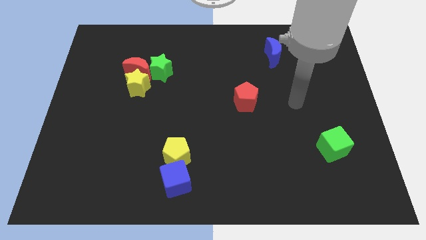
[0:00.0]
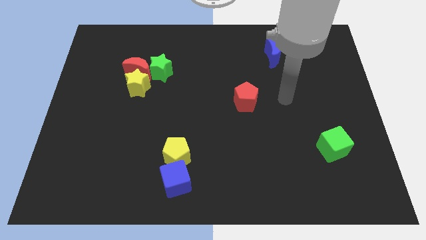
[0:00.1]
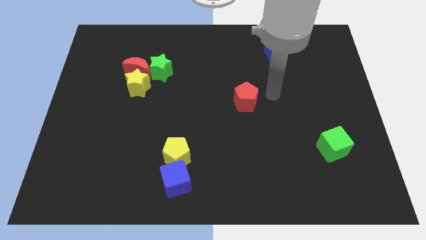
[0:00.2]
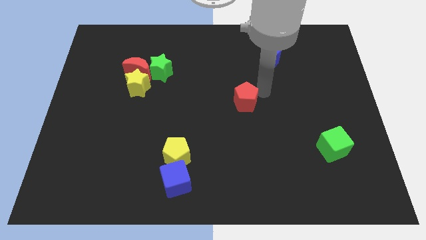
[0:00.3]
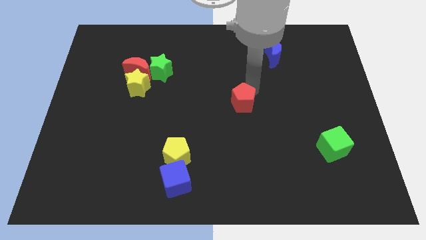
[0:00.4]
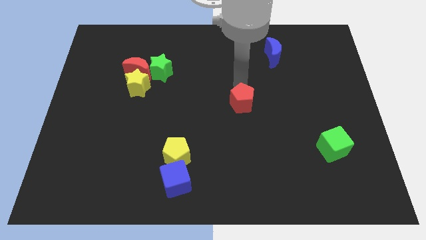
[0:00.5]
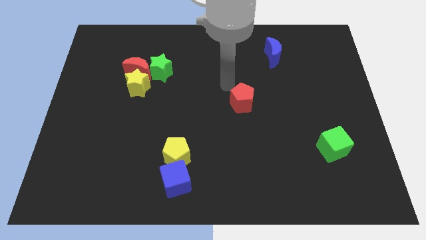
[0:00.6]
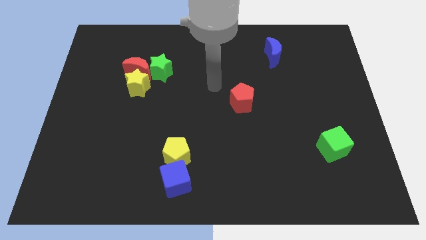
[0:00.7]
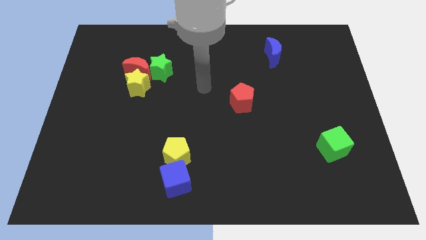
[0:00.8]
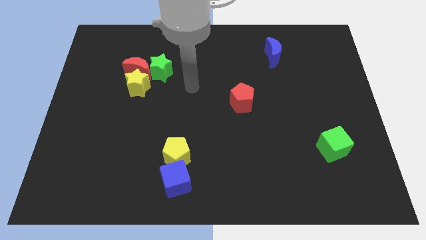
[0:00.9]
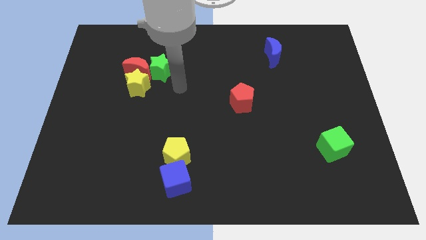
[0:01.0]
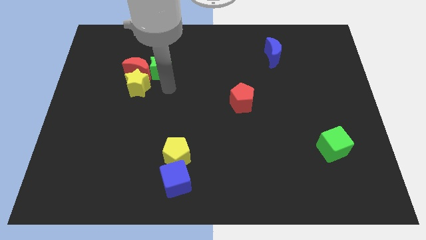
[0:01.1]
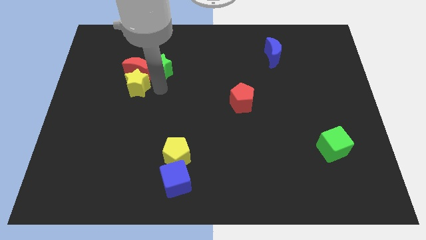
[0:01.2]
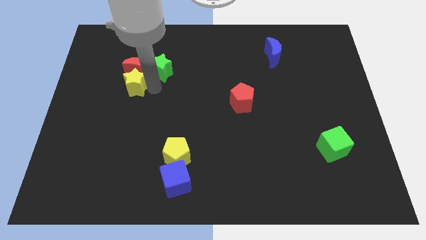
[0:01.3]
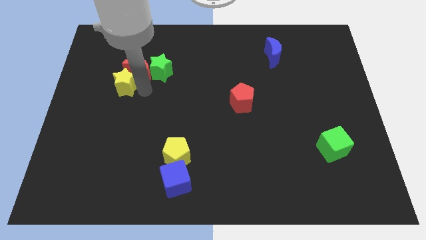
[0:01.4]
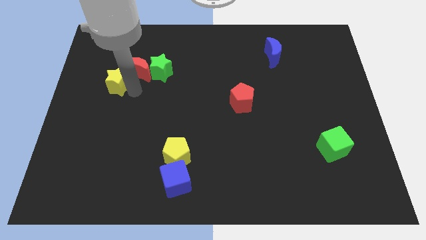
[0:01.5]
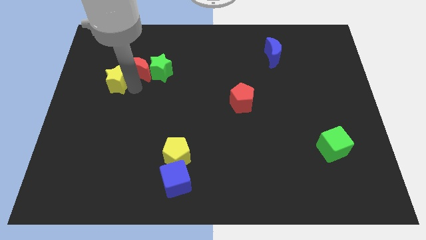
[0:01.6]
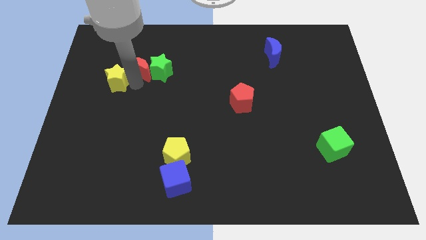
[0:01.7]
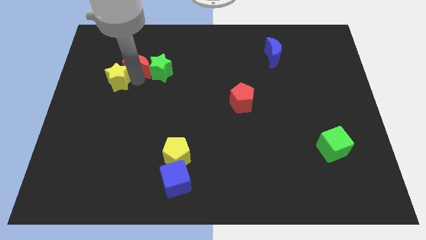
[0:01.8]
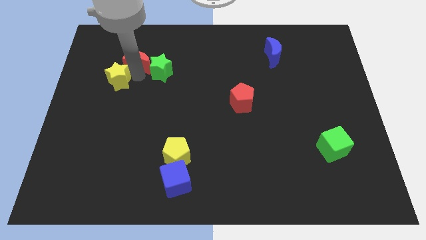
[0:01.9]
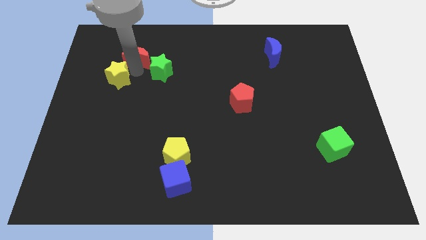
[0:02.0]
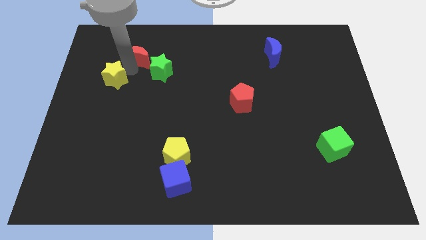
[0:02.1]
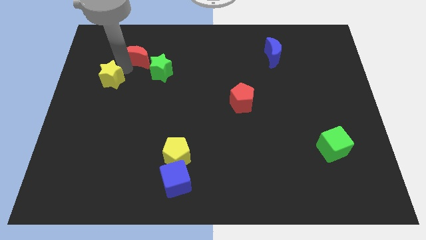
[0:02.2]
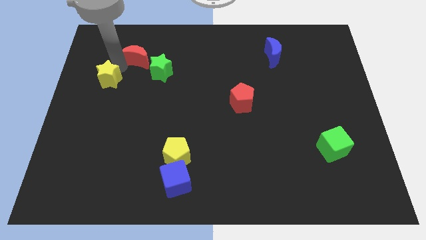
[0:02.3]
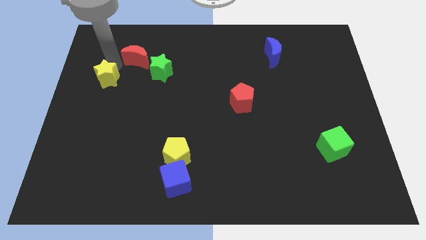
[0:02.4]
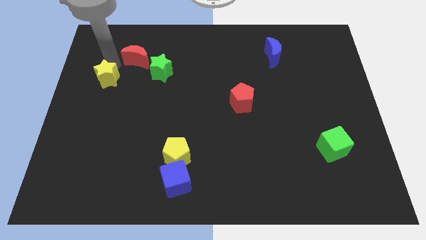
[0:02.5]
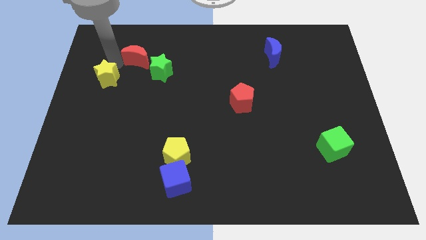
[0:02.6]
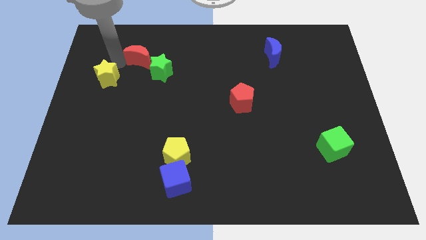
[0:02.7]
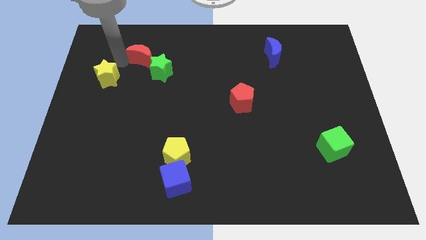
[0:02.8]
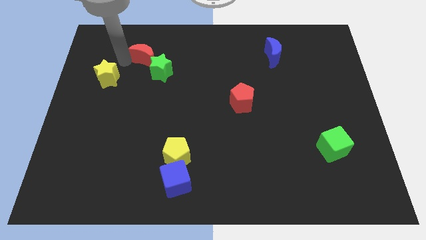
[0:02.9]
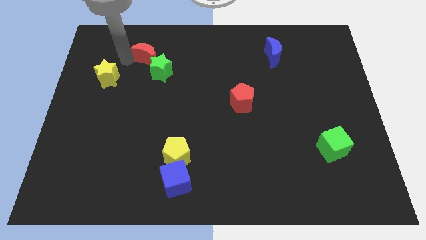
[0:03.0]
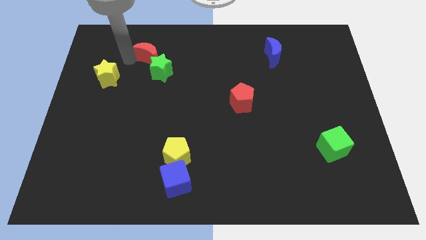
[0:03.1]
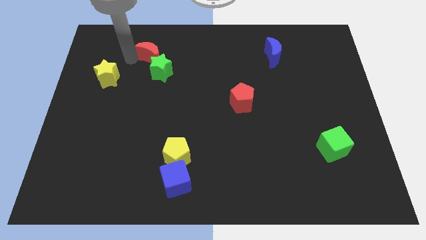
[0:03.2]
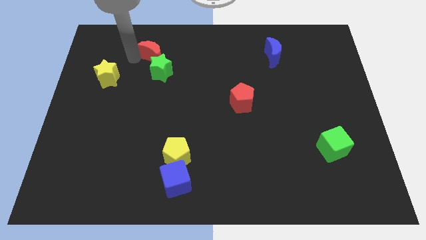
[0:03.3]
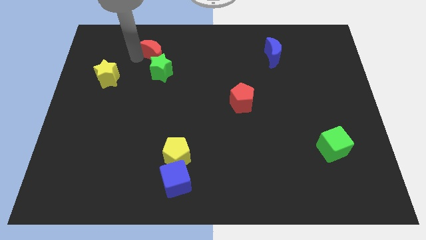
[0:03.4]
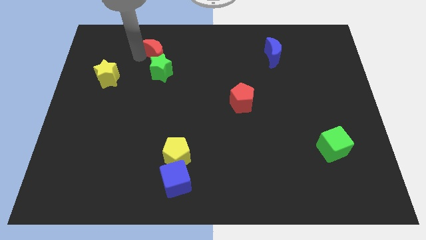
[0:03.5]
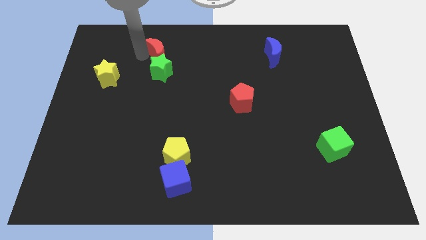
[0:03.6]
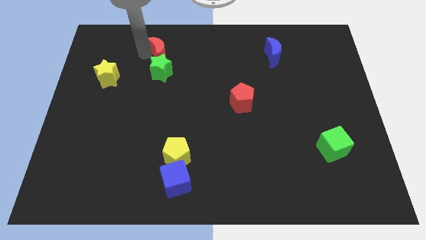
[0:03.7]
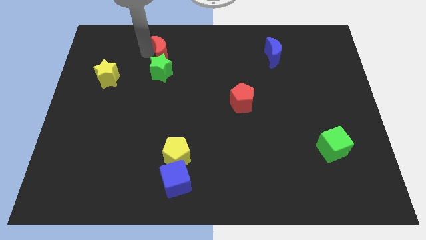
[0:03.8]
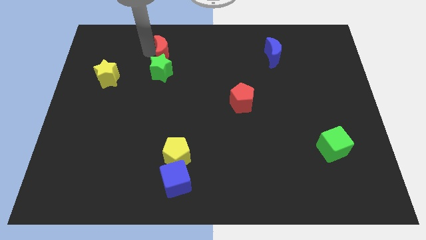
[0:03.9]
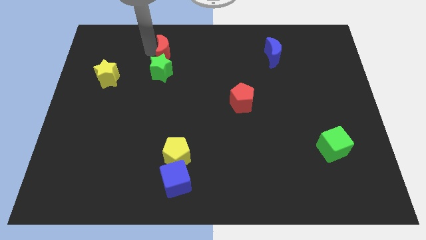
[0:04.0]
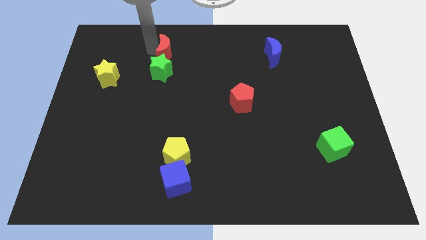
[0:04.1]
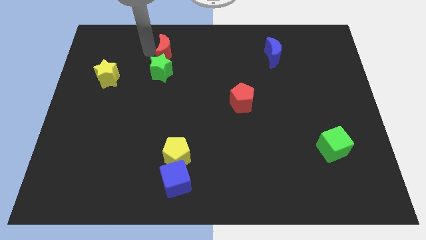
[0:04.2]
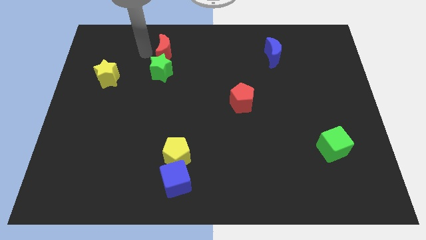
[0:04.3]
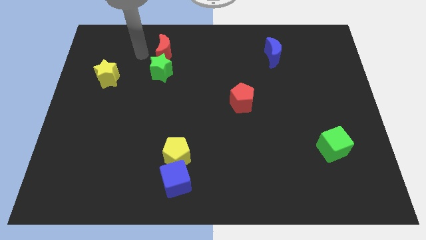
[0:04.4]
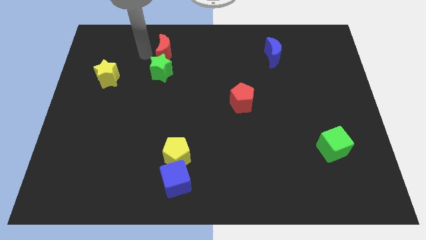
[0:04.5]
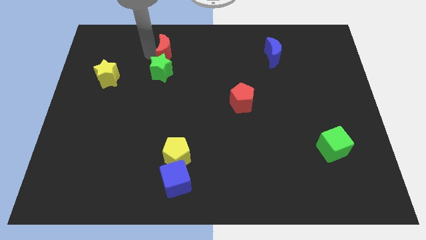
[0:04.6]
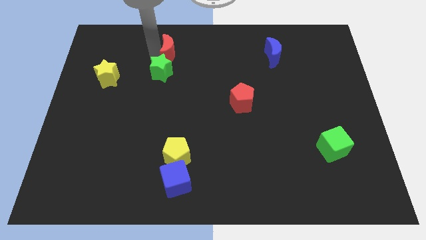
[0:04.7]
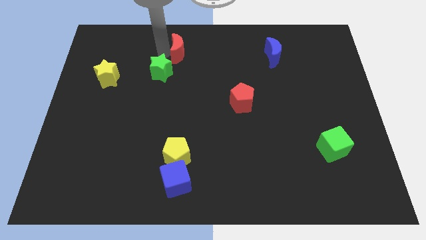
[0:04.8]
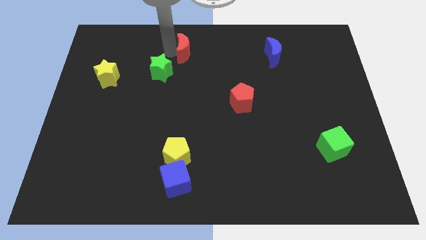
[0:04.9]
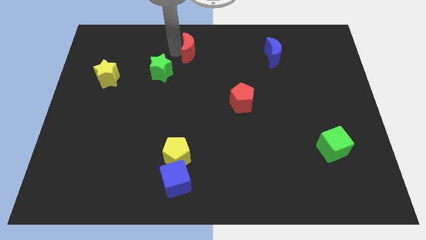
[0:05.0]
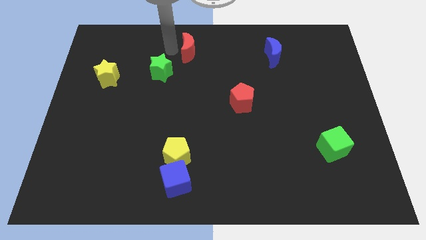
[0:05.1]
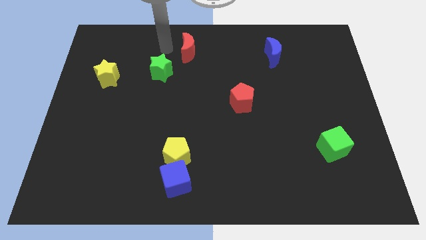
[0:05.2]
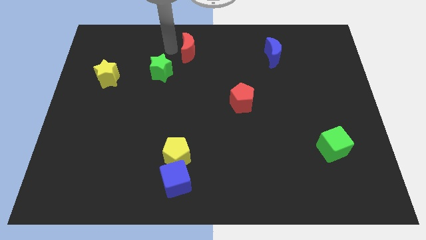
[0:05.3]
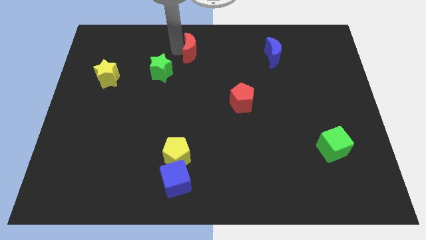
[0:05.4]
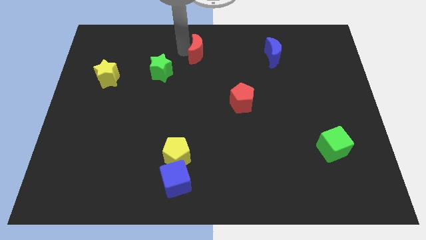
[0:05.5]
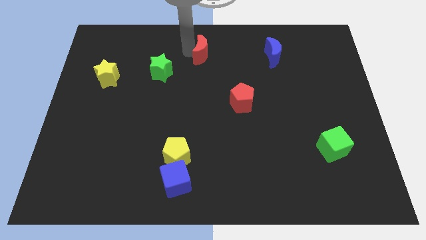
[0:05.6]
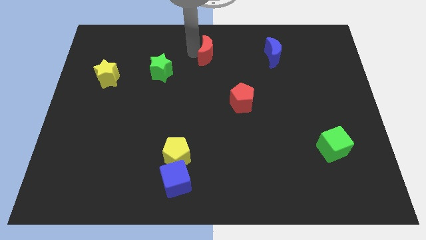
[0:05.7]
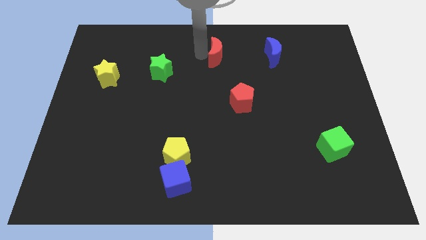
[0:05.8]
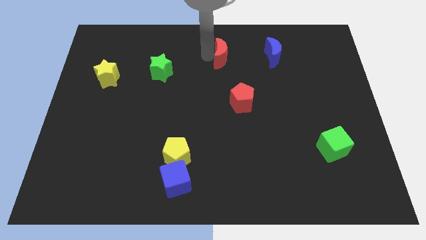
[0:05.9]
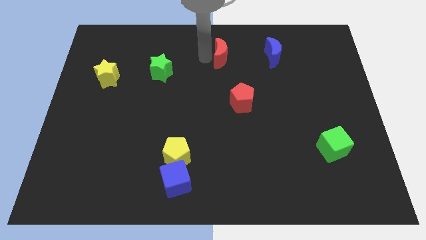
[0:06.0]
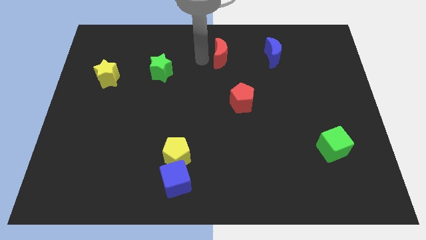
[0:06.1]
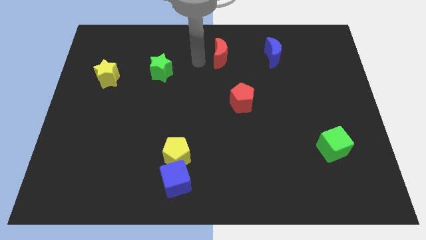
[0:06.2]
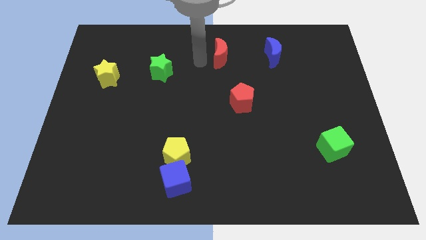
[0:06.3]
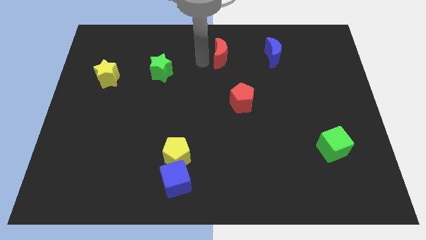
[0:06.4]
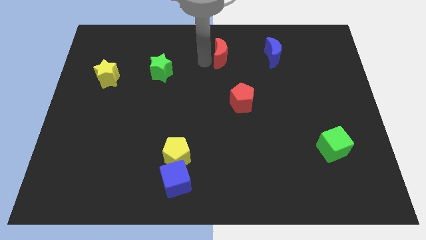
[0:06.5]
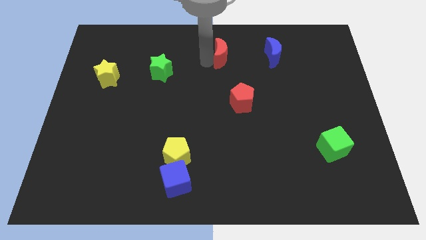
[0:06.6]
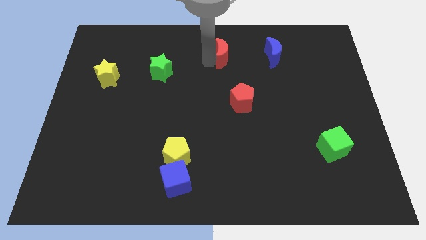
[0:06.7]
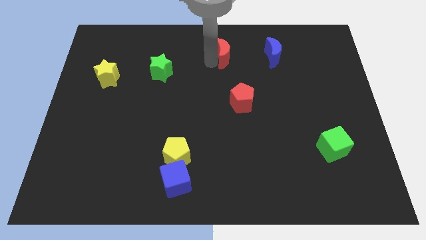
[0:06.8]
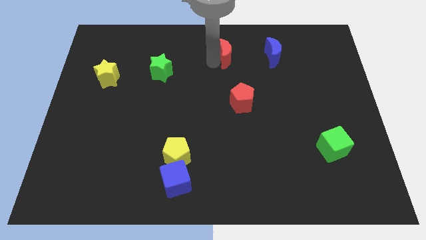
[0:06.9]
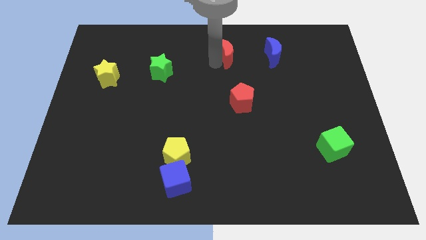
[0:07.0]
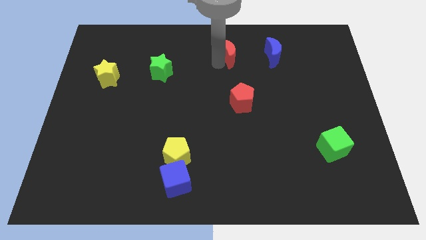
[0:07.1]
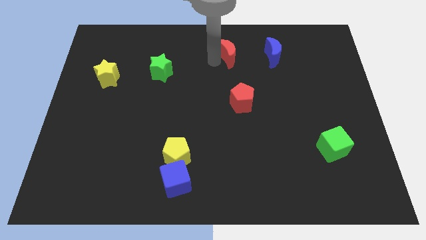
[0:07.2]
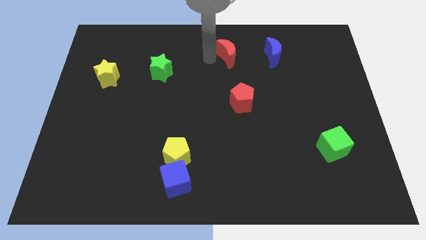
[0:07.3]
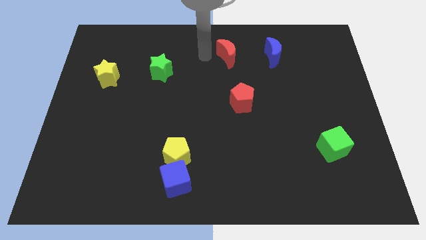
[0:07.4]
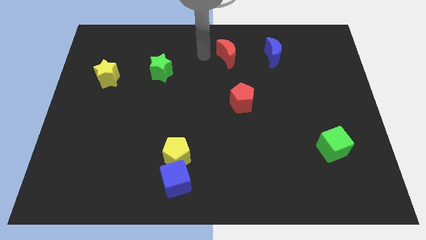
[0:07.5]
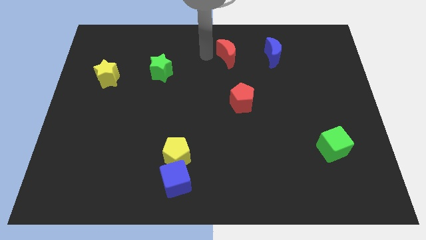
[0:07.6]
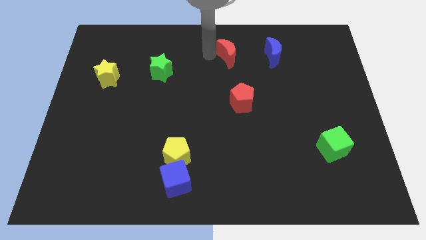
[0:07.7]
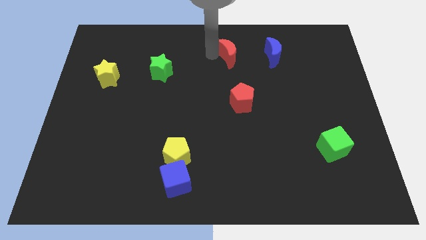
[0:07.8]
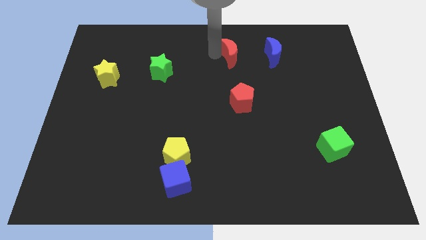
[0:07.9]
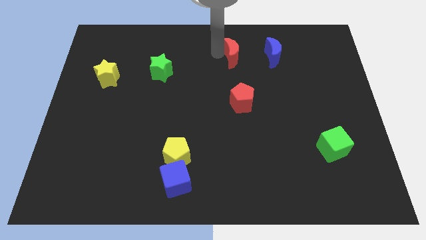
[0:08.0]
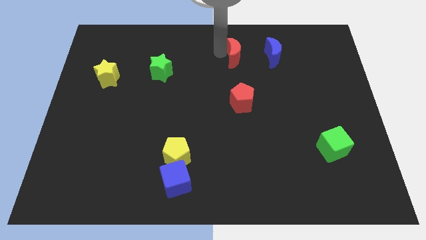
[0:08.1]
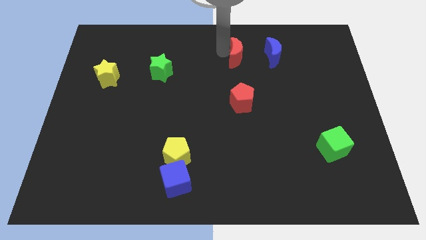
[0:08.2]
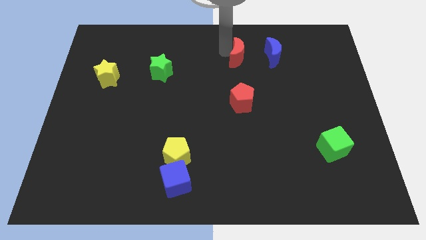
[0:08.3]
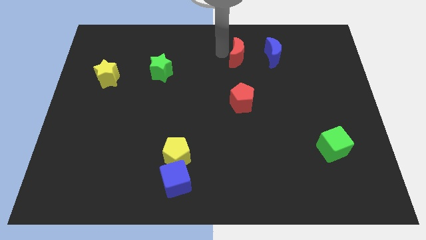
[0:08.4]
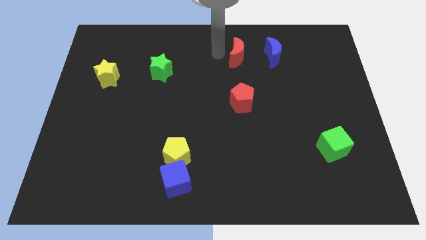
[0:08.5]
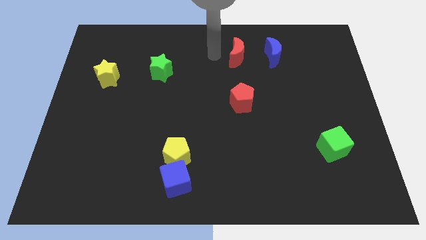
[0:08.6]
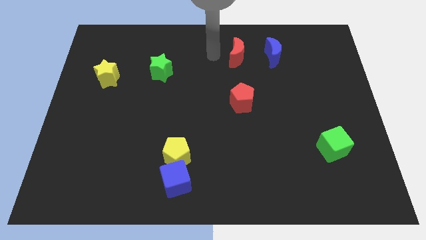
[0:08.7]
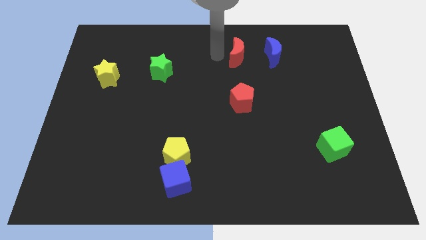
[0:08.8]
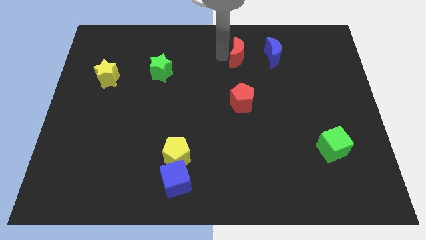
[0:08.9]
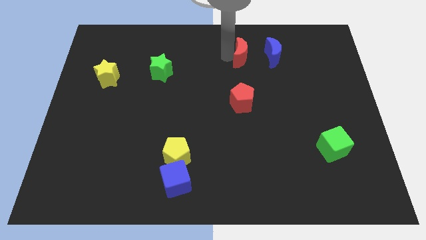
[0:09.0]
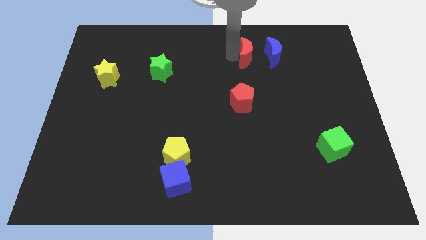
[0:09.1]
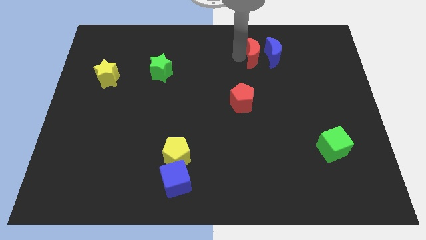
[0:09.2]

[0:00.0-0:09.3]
slide the red moon to the blue moon
